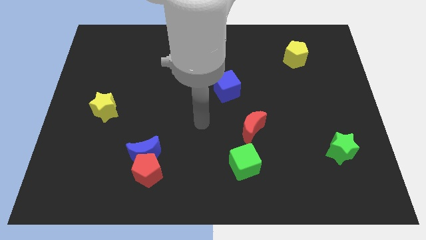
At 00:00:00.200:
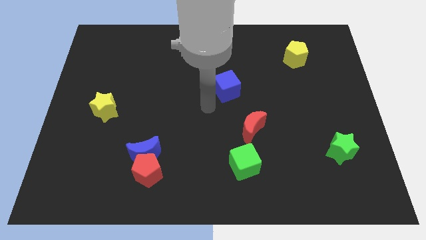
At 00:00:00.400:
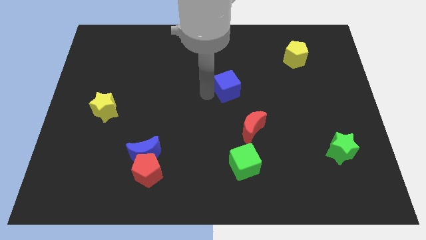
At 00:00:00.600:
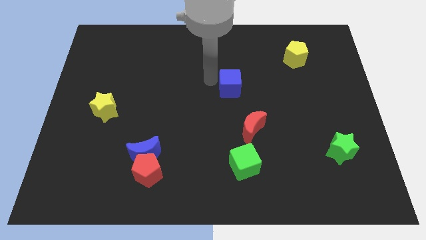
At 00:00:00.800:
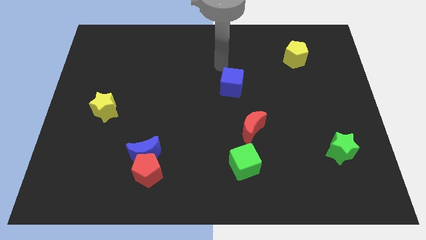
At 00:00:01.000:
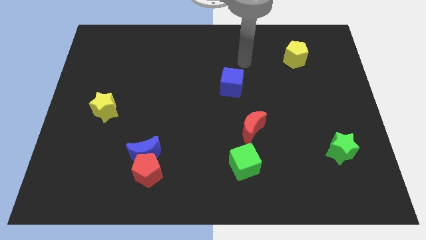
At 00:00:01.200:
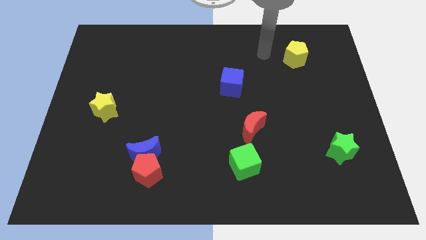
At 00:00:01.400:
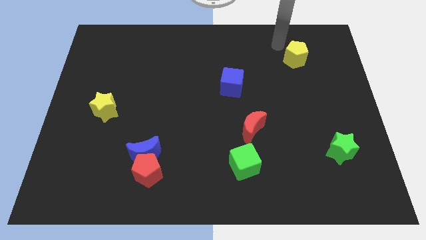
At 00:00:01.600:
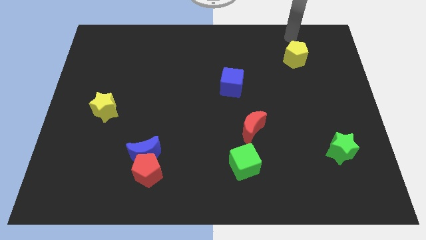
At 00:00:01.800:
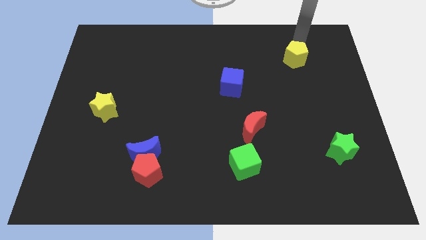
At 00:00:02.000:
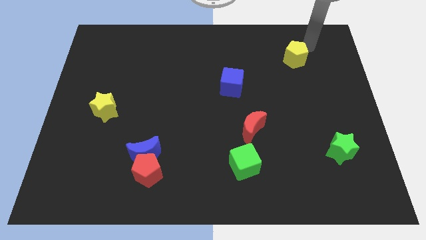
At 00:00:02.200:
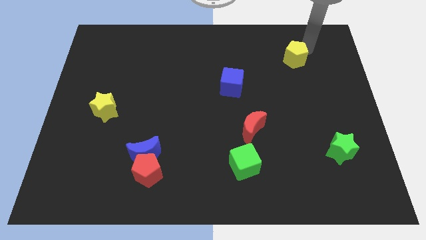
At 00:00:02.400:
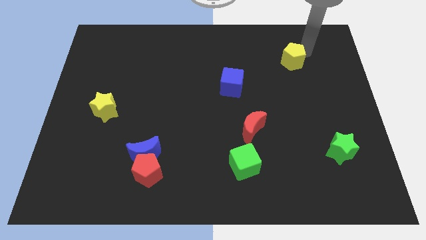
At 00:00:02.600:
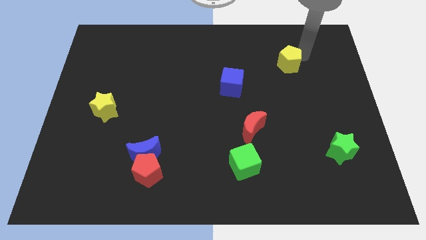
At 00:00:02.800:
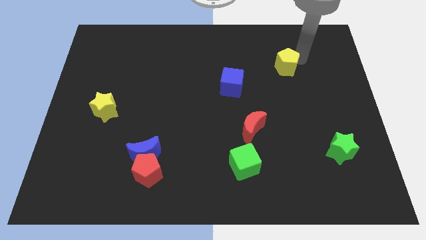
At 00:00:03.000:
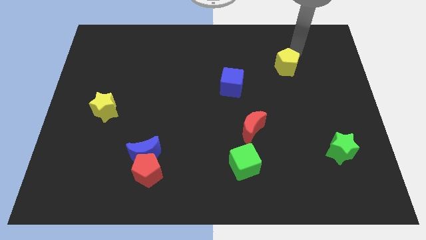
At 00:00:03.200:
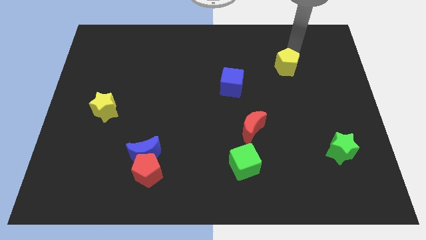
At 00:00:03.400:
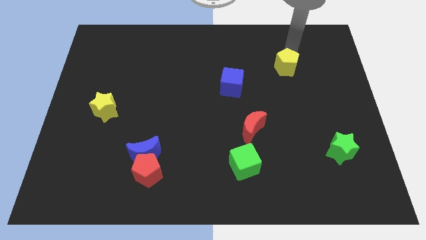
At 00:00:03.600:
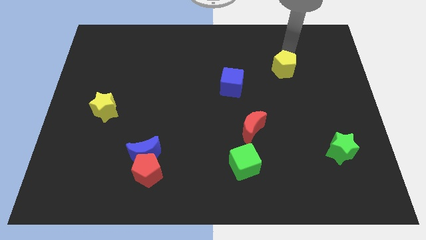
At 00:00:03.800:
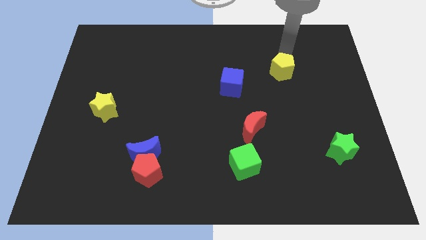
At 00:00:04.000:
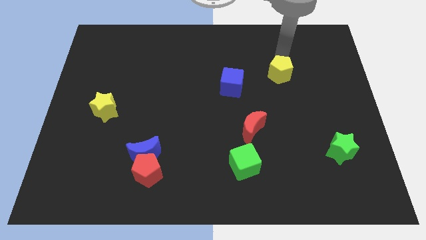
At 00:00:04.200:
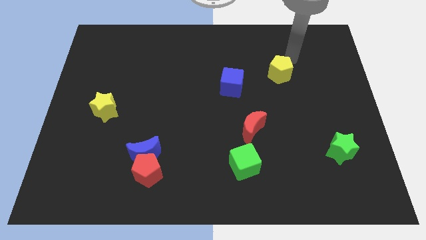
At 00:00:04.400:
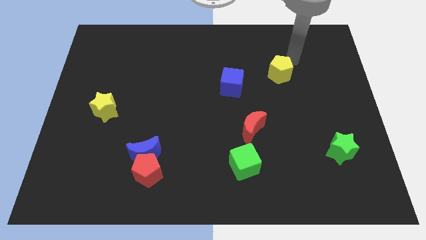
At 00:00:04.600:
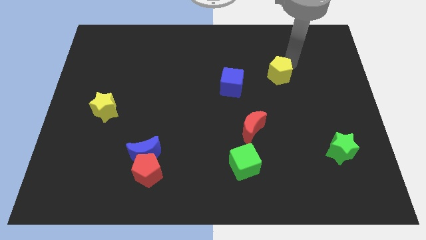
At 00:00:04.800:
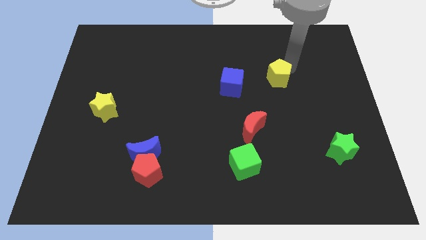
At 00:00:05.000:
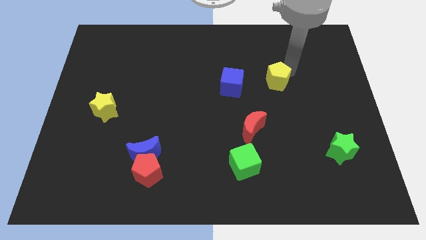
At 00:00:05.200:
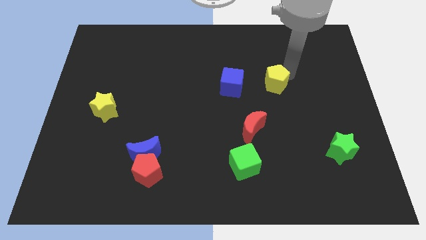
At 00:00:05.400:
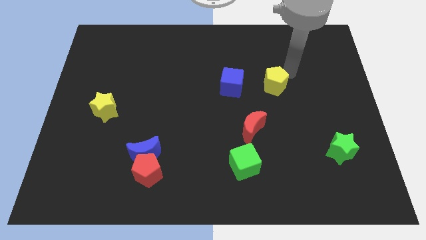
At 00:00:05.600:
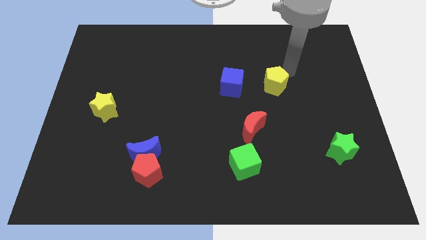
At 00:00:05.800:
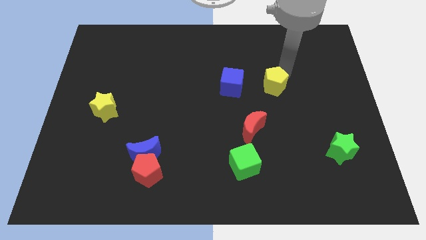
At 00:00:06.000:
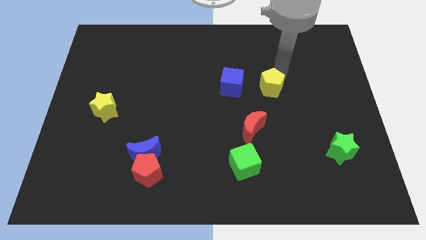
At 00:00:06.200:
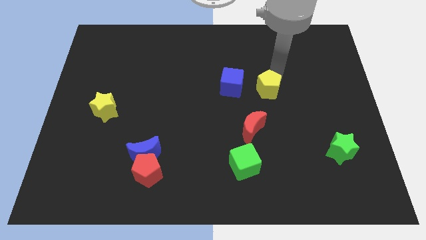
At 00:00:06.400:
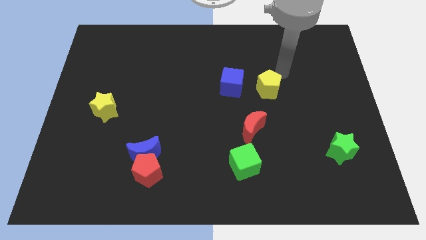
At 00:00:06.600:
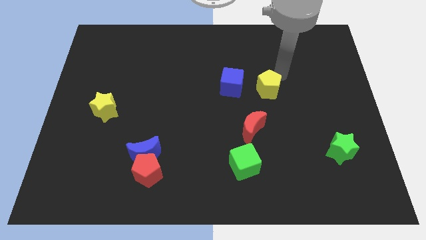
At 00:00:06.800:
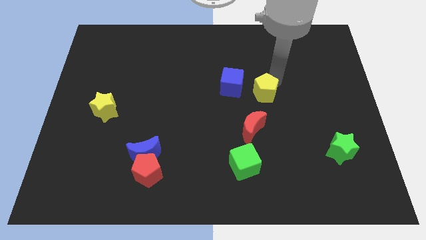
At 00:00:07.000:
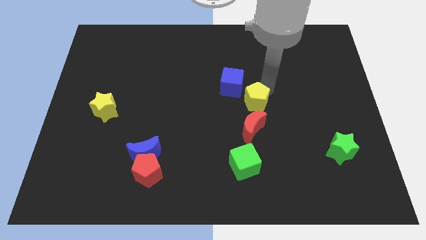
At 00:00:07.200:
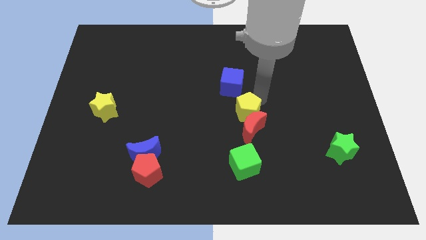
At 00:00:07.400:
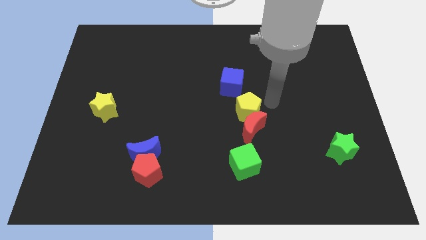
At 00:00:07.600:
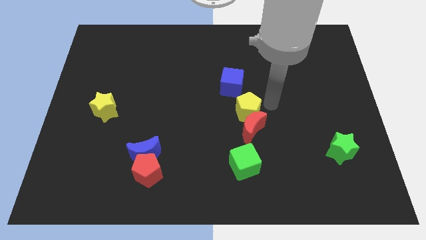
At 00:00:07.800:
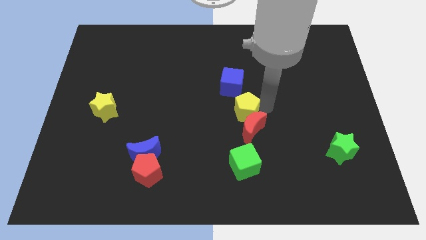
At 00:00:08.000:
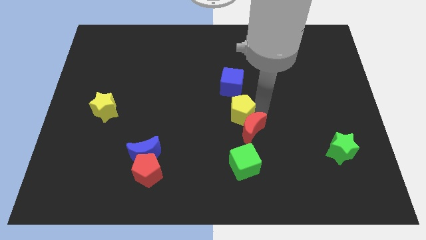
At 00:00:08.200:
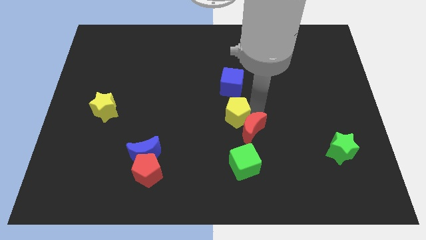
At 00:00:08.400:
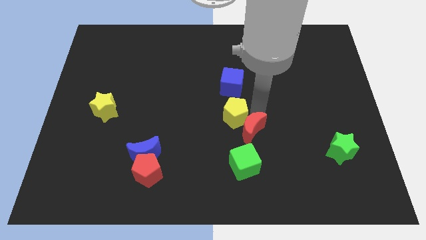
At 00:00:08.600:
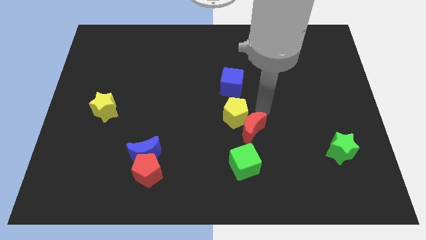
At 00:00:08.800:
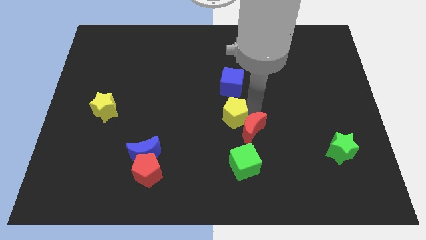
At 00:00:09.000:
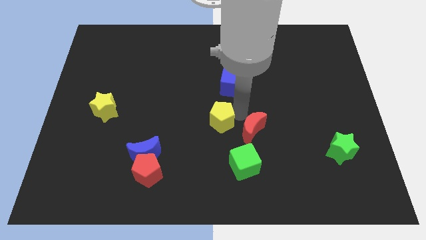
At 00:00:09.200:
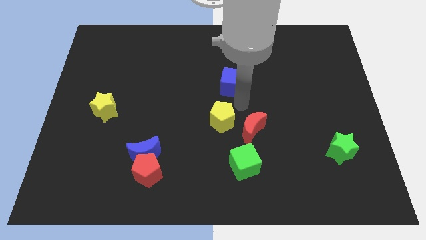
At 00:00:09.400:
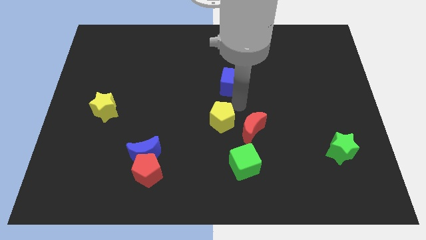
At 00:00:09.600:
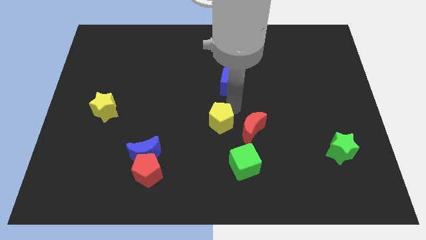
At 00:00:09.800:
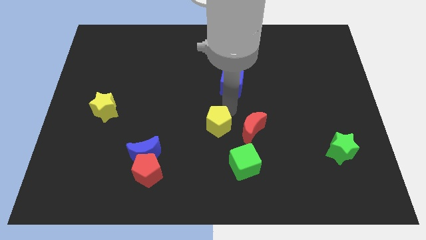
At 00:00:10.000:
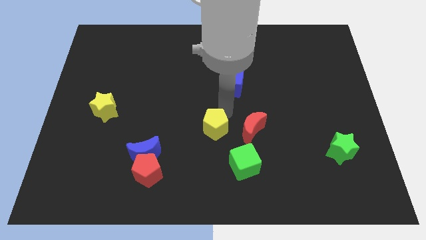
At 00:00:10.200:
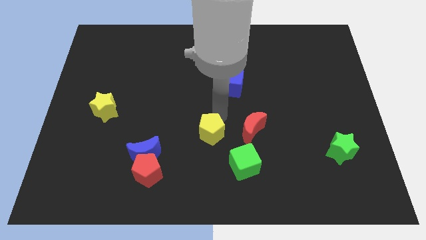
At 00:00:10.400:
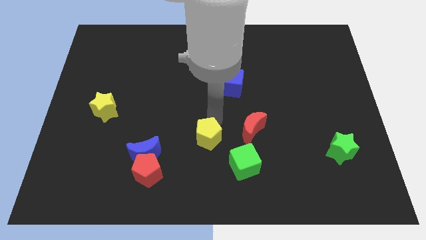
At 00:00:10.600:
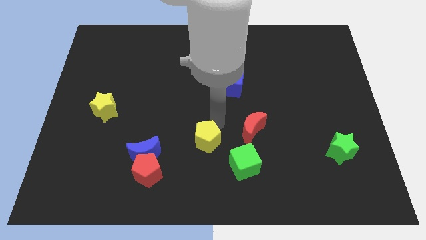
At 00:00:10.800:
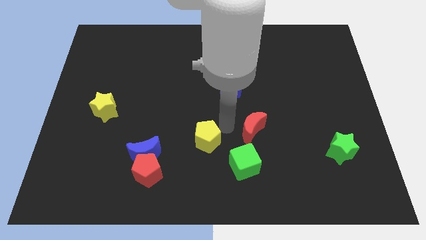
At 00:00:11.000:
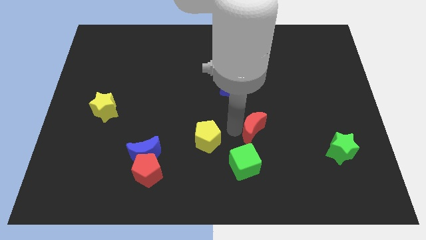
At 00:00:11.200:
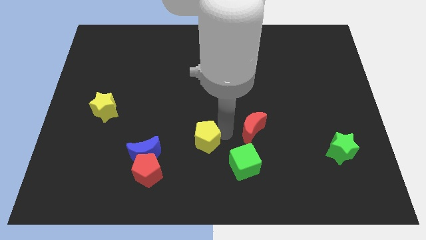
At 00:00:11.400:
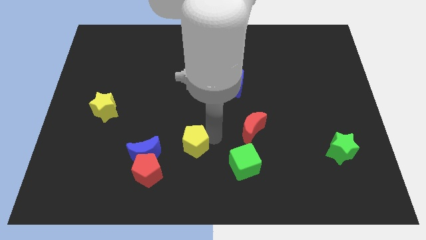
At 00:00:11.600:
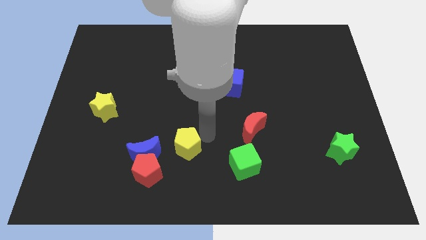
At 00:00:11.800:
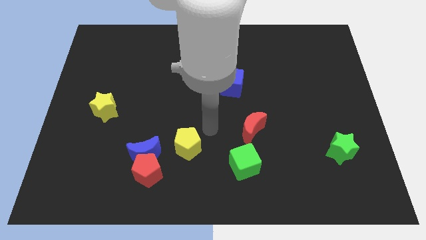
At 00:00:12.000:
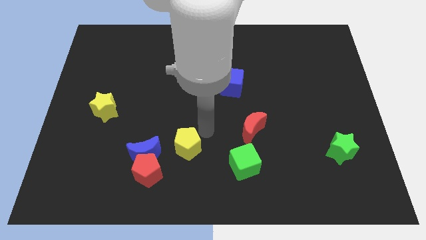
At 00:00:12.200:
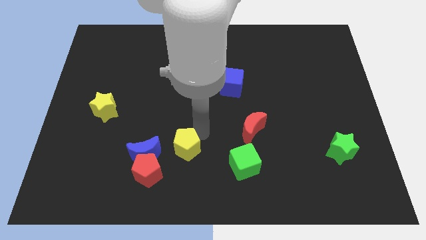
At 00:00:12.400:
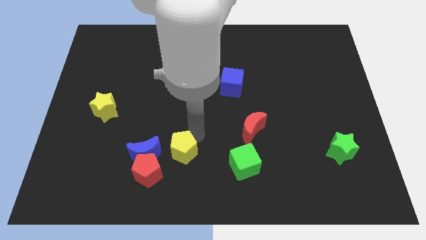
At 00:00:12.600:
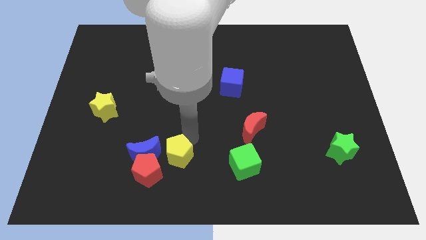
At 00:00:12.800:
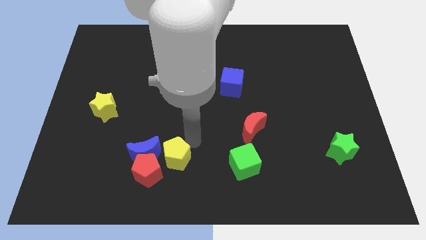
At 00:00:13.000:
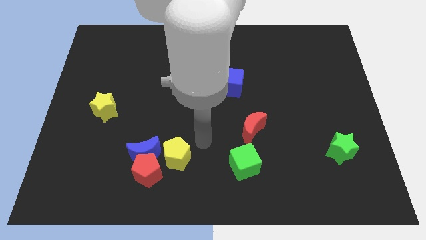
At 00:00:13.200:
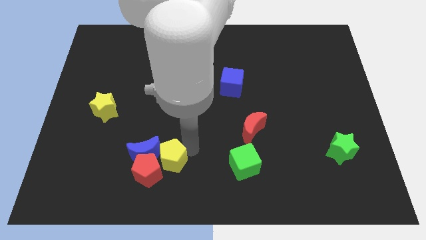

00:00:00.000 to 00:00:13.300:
put the yellow pentagon next to the red pentagon
